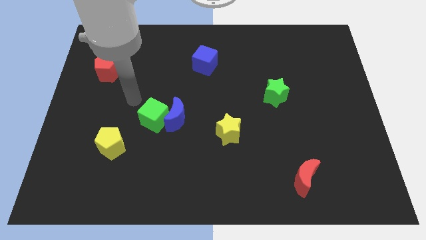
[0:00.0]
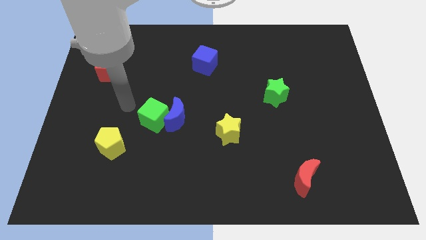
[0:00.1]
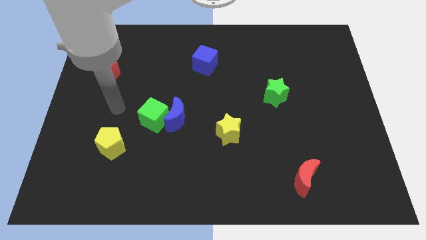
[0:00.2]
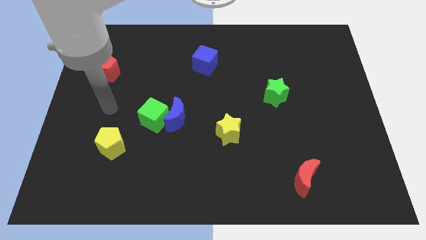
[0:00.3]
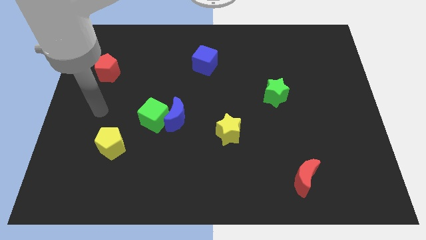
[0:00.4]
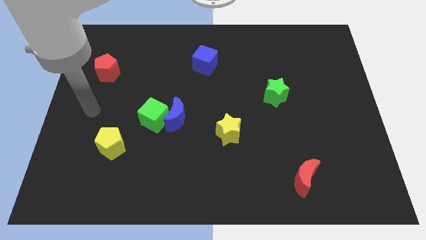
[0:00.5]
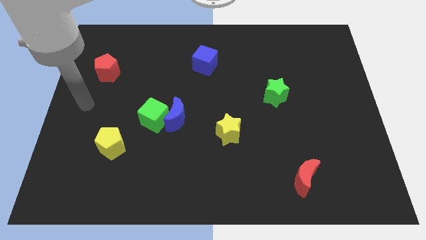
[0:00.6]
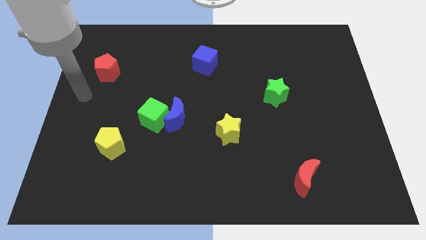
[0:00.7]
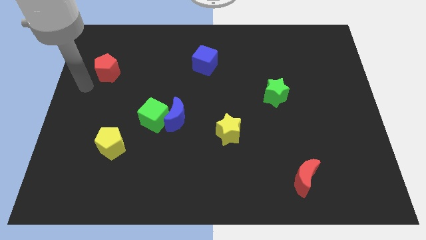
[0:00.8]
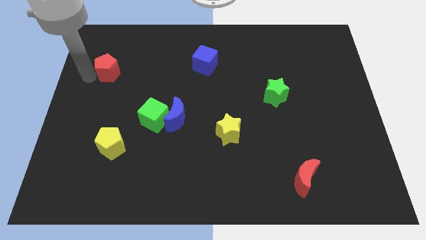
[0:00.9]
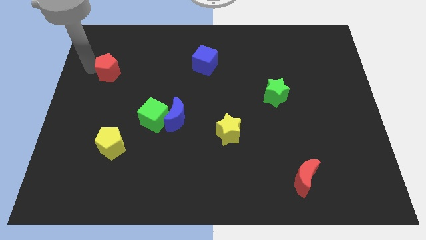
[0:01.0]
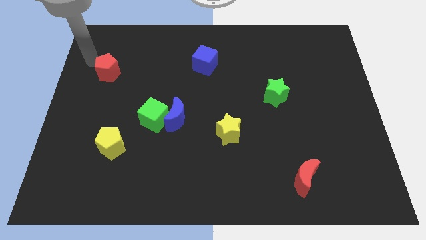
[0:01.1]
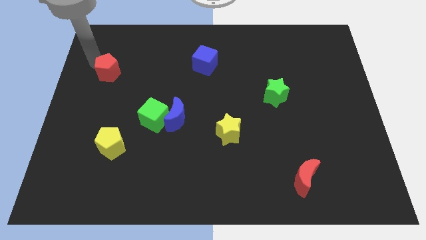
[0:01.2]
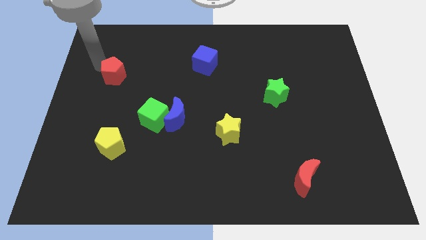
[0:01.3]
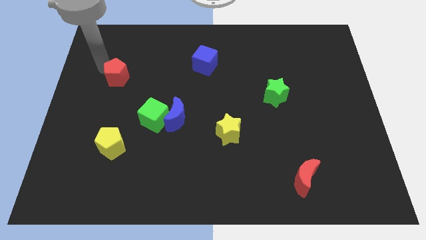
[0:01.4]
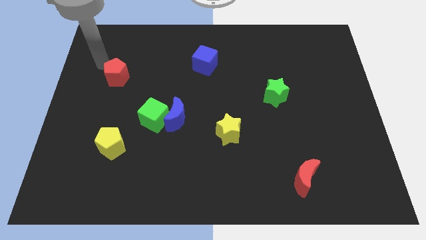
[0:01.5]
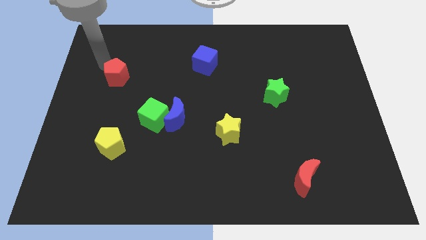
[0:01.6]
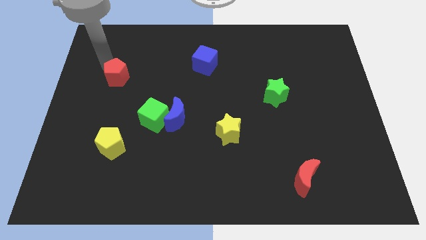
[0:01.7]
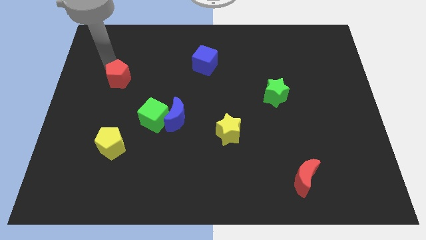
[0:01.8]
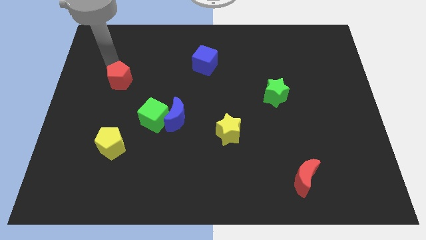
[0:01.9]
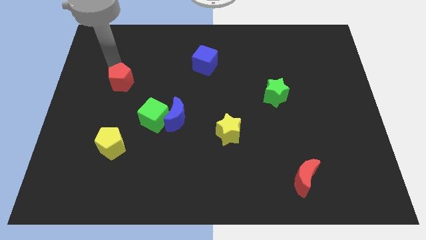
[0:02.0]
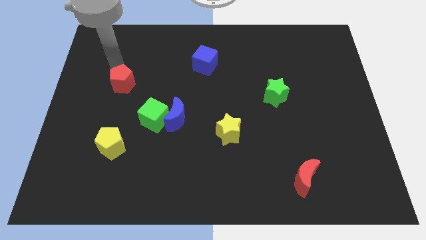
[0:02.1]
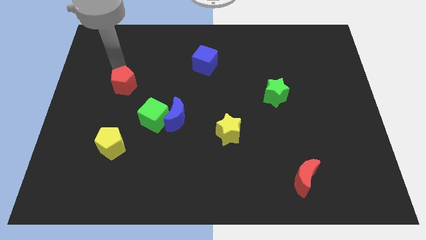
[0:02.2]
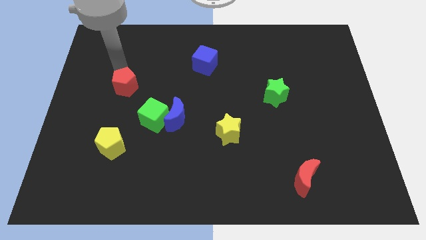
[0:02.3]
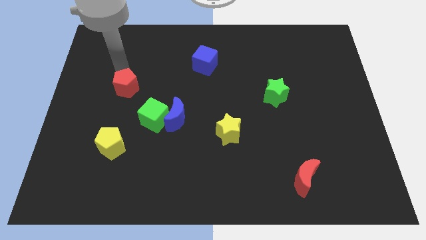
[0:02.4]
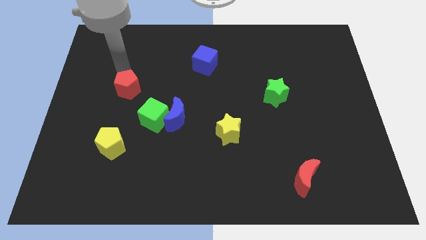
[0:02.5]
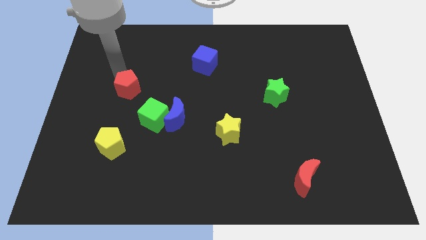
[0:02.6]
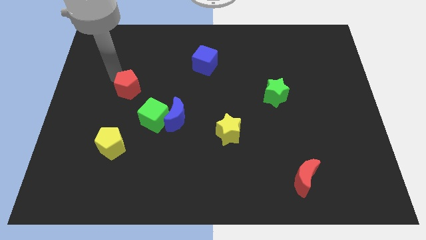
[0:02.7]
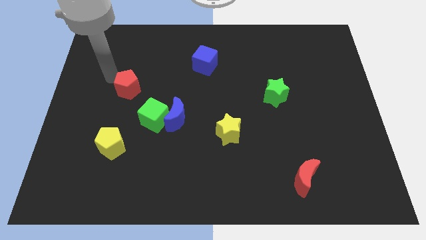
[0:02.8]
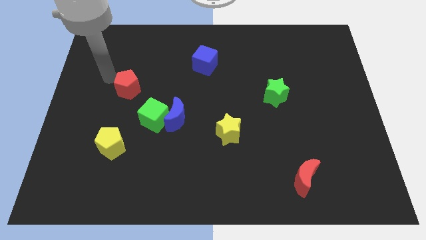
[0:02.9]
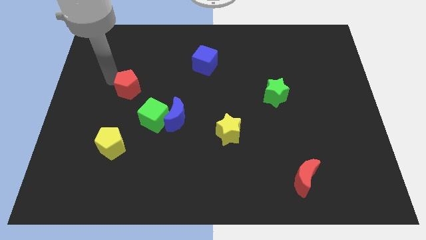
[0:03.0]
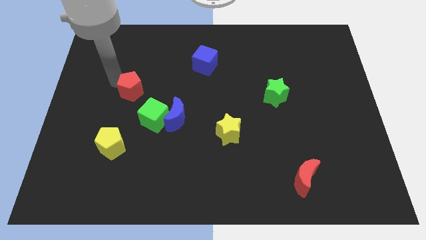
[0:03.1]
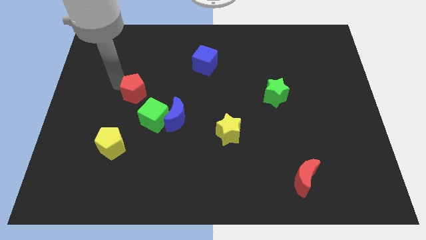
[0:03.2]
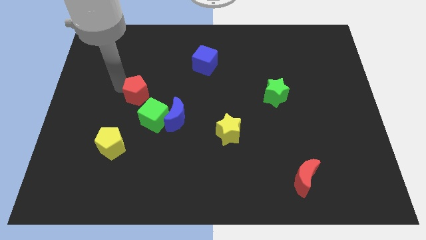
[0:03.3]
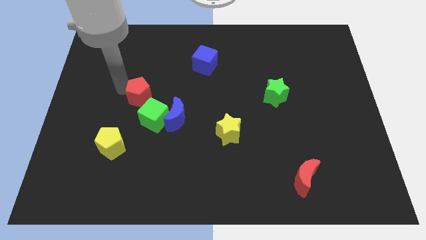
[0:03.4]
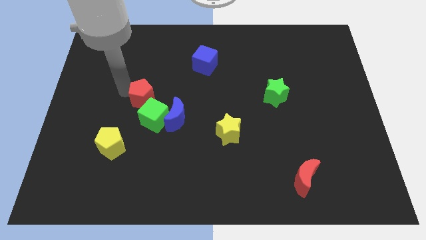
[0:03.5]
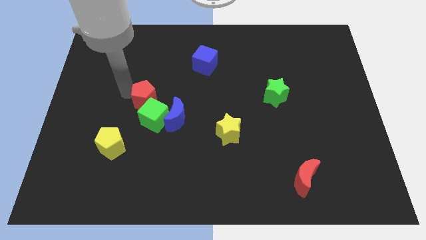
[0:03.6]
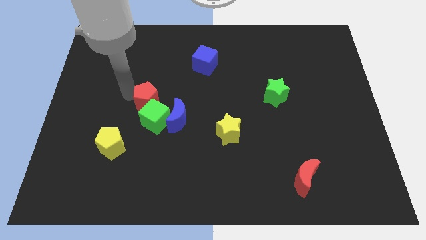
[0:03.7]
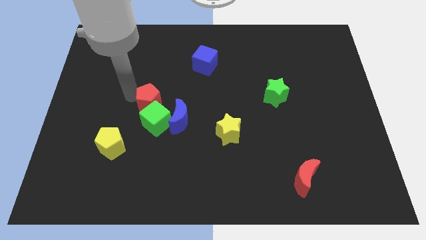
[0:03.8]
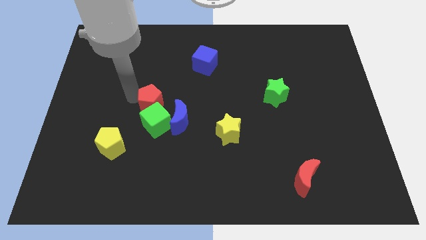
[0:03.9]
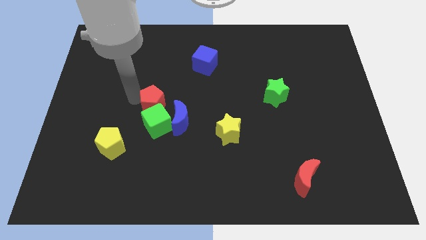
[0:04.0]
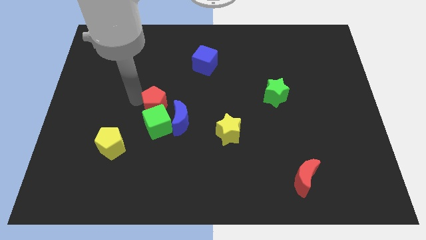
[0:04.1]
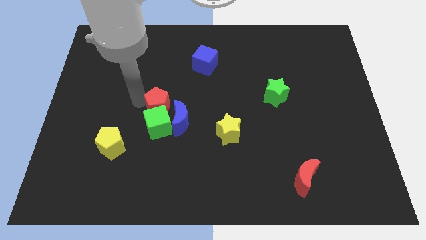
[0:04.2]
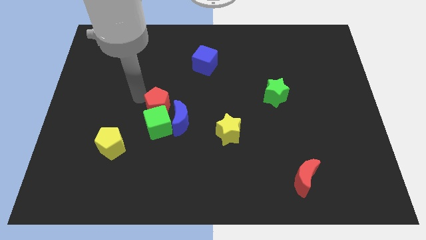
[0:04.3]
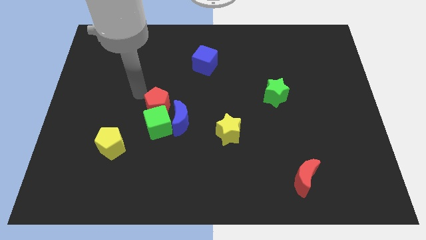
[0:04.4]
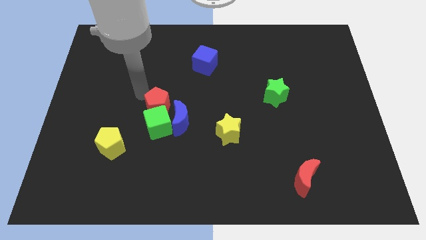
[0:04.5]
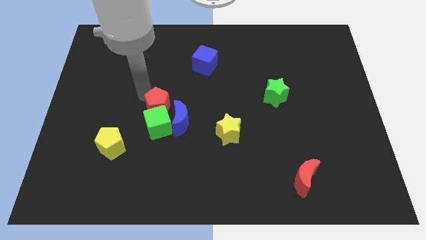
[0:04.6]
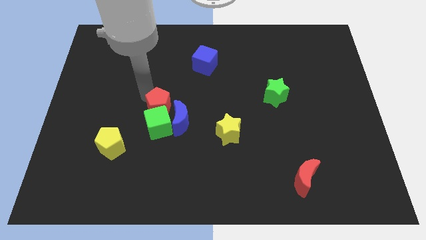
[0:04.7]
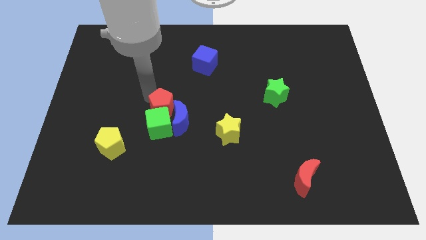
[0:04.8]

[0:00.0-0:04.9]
move the red pentagon next to the blue moon

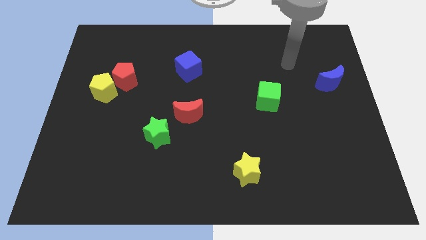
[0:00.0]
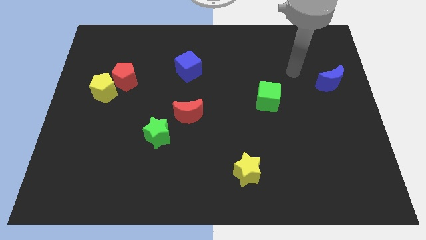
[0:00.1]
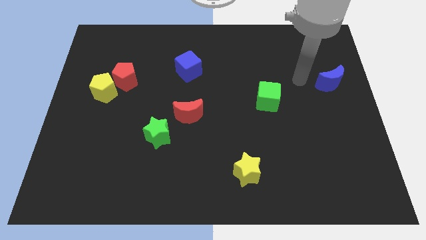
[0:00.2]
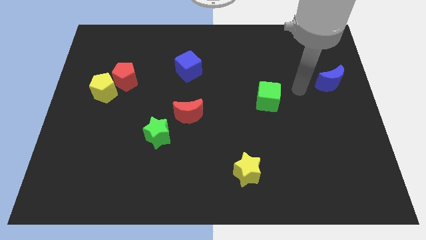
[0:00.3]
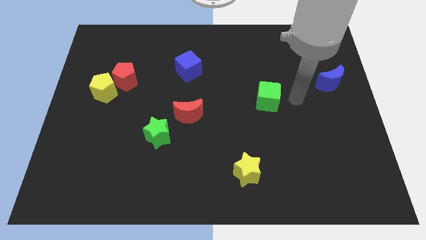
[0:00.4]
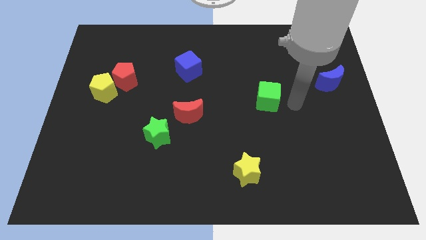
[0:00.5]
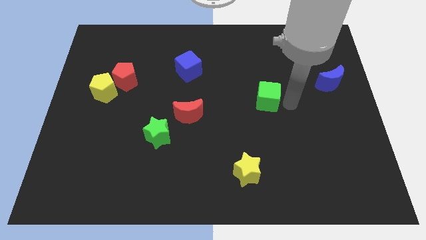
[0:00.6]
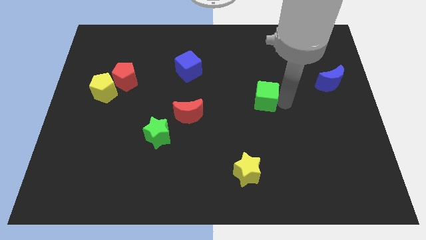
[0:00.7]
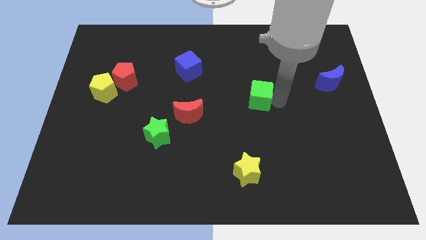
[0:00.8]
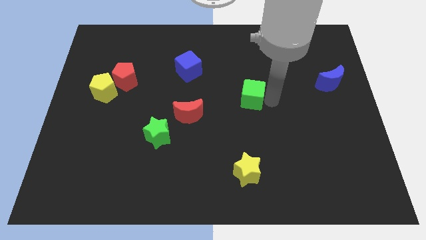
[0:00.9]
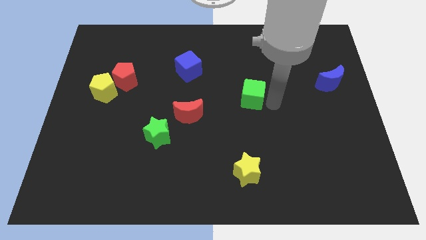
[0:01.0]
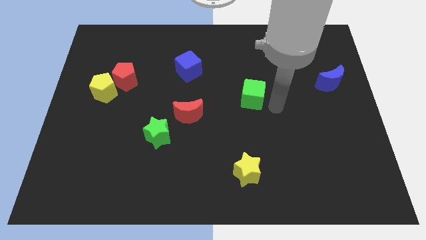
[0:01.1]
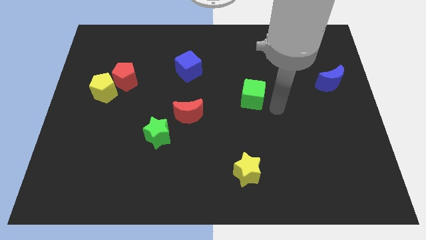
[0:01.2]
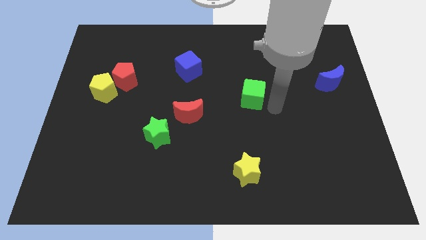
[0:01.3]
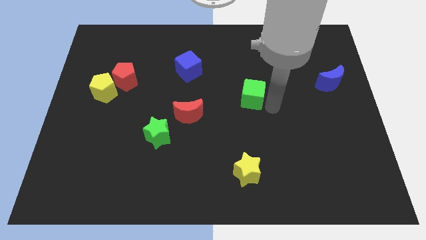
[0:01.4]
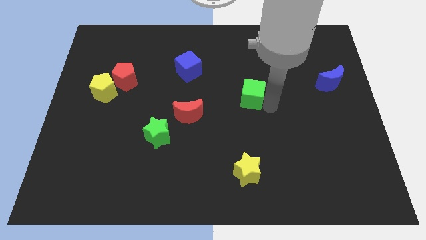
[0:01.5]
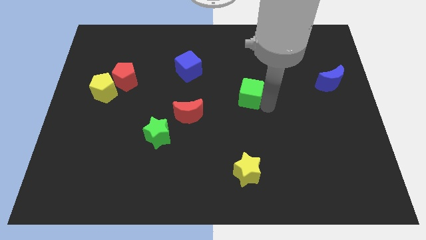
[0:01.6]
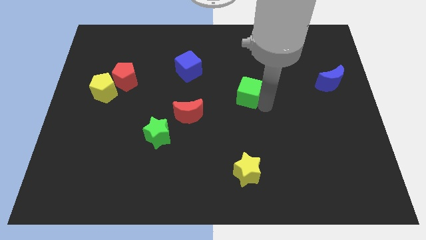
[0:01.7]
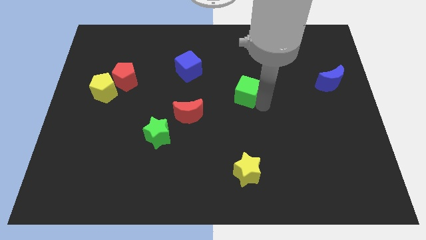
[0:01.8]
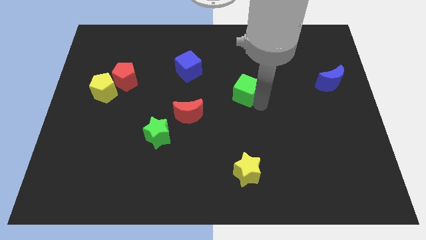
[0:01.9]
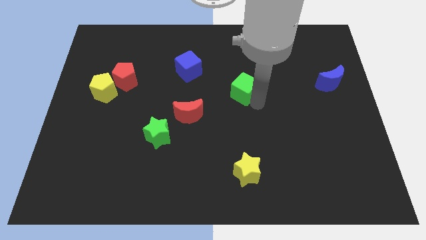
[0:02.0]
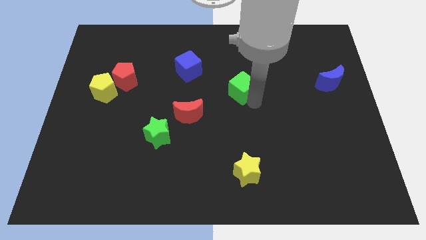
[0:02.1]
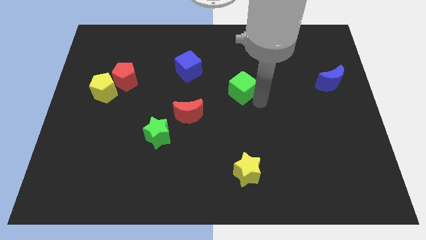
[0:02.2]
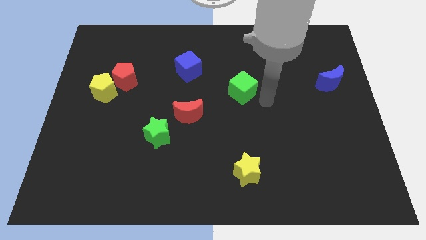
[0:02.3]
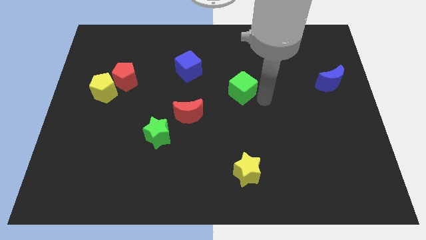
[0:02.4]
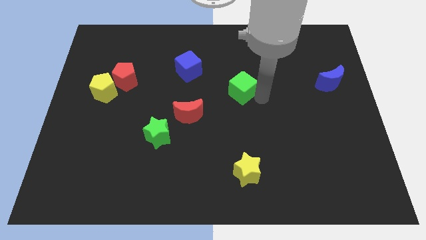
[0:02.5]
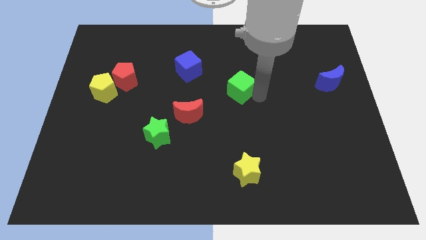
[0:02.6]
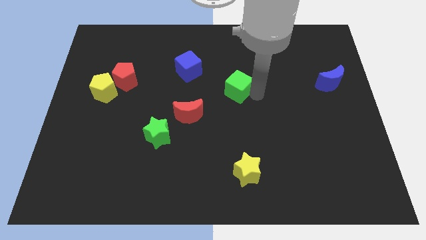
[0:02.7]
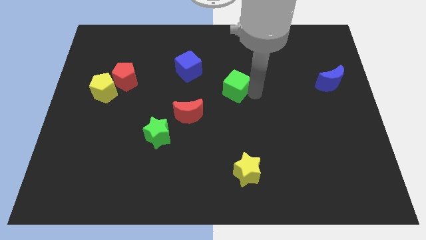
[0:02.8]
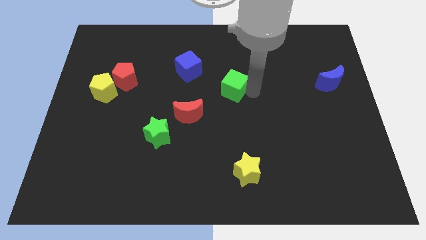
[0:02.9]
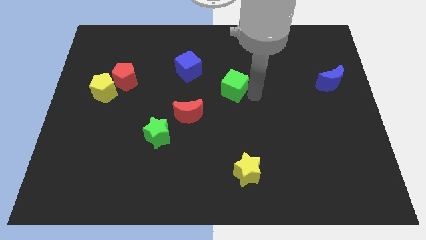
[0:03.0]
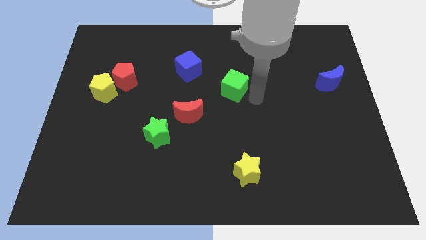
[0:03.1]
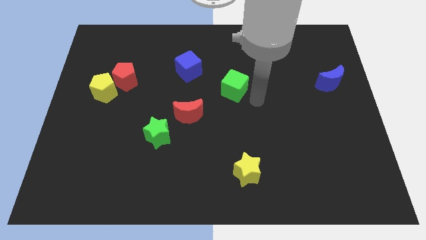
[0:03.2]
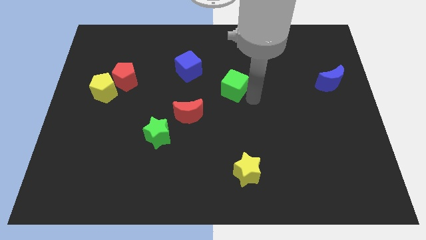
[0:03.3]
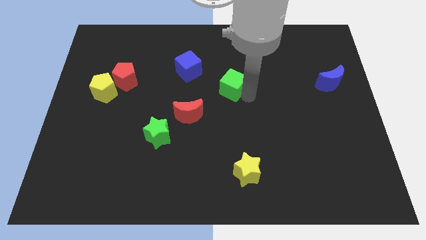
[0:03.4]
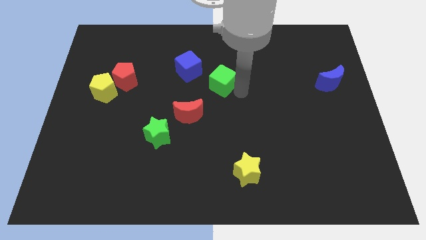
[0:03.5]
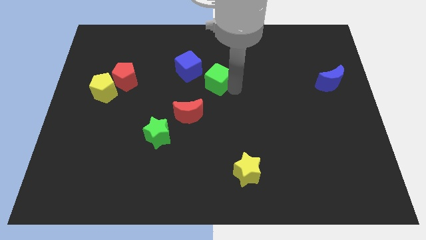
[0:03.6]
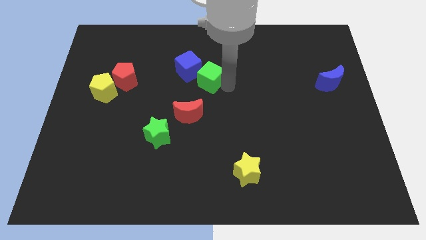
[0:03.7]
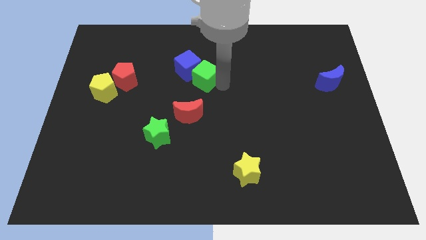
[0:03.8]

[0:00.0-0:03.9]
push the green cube towards the blue cube
